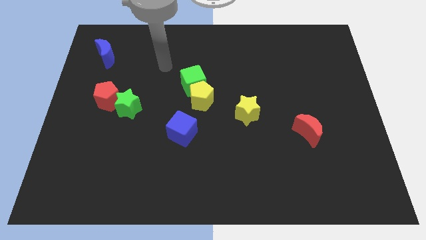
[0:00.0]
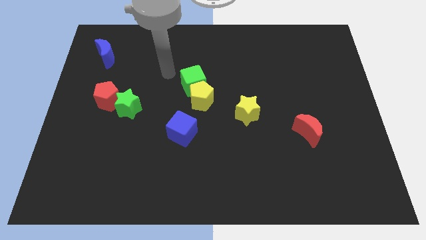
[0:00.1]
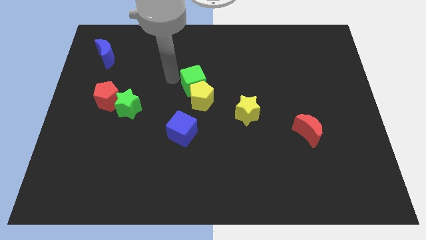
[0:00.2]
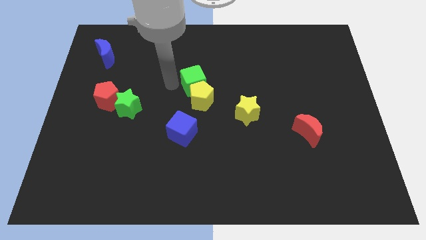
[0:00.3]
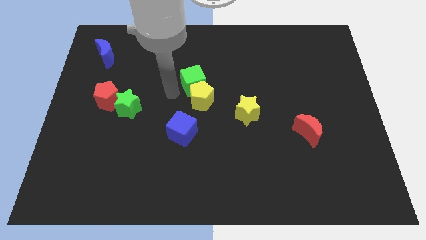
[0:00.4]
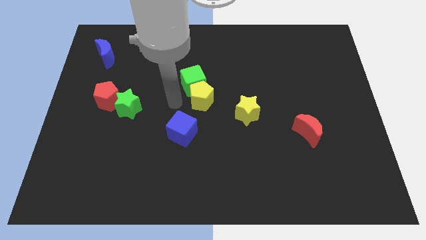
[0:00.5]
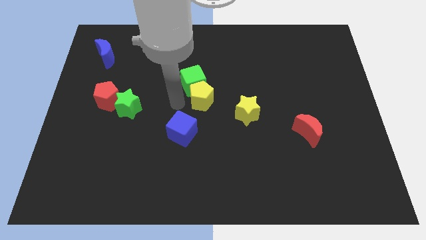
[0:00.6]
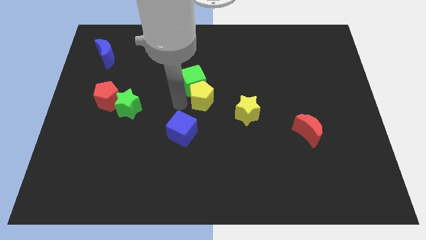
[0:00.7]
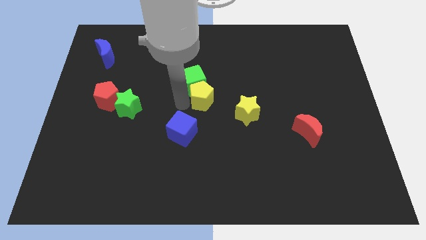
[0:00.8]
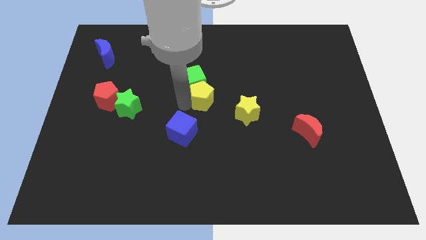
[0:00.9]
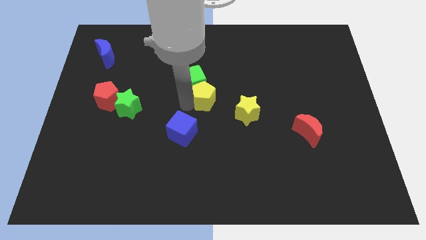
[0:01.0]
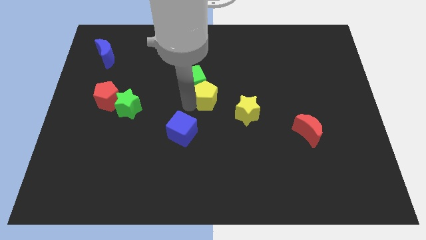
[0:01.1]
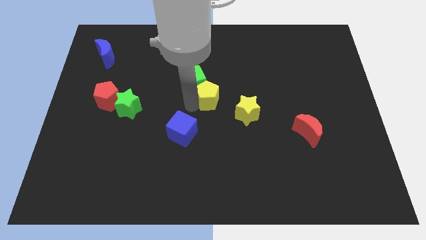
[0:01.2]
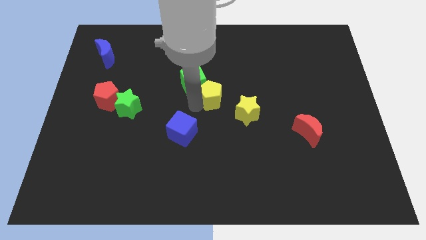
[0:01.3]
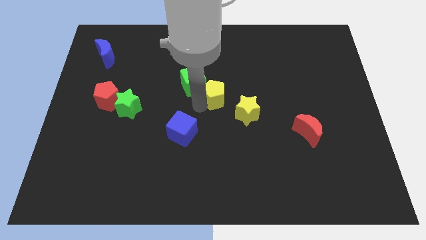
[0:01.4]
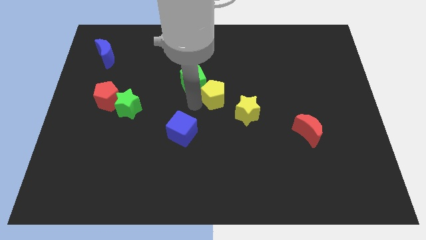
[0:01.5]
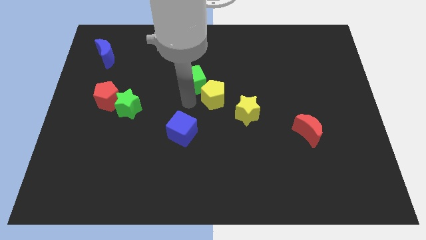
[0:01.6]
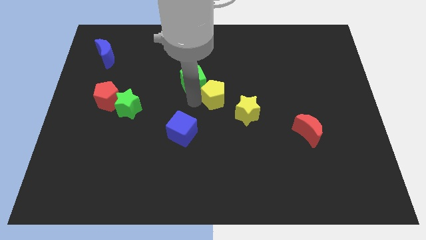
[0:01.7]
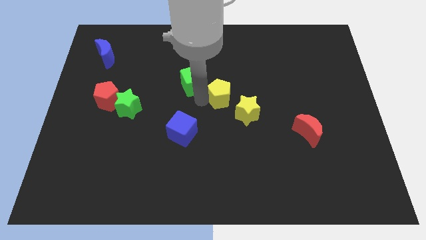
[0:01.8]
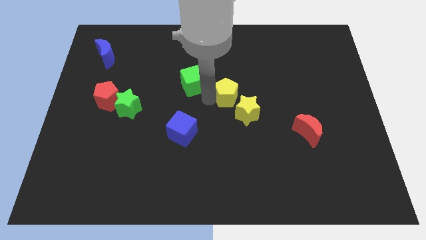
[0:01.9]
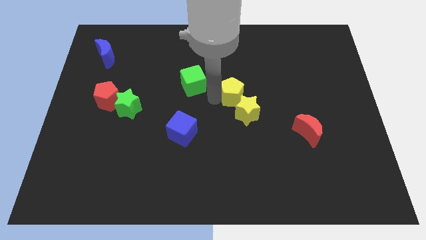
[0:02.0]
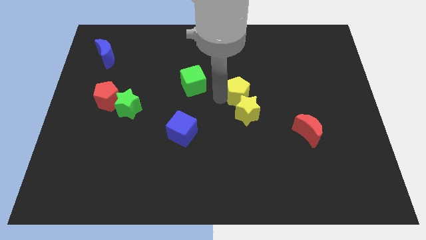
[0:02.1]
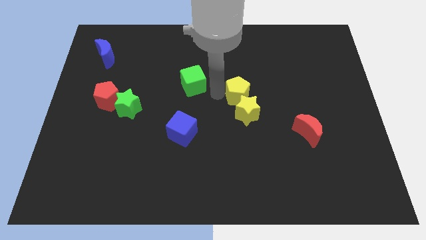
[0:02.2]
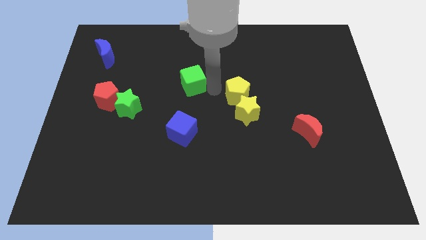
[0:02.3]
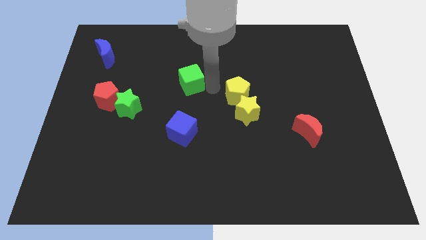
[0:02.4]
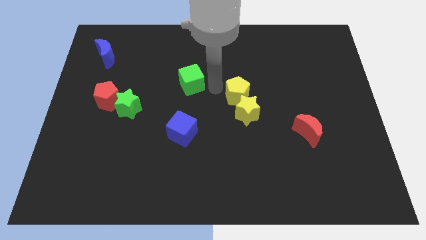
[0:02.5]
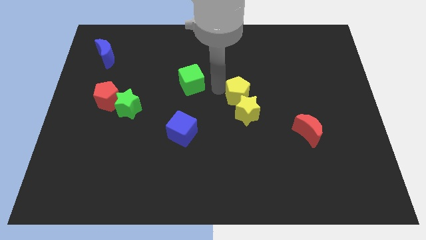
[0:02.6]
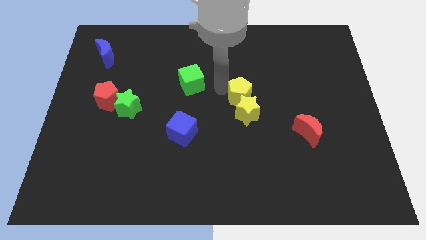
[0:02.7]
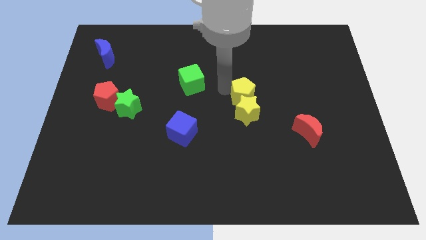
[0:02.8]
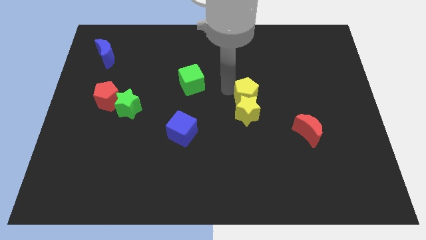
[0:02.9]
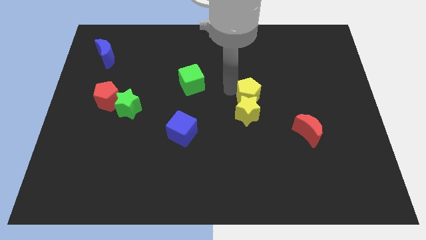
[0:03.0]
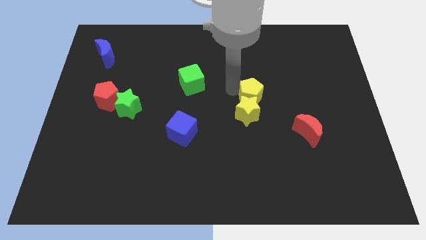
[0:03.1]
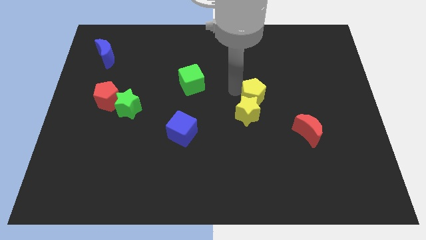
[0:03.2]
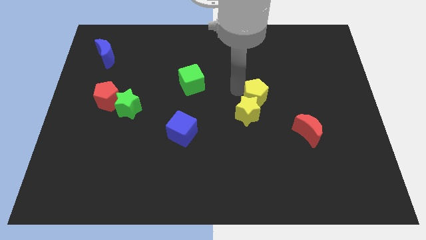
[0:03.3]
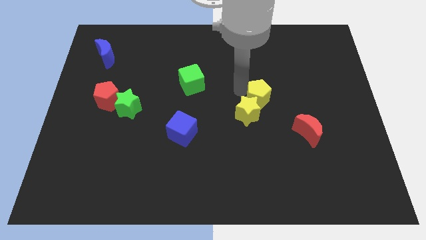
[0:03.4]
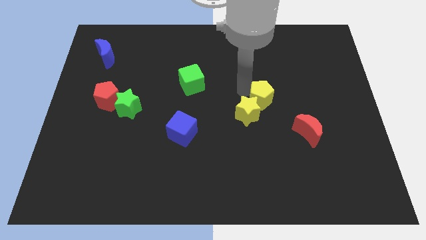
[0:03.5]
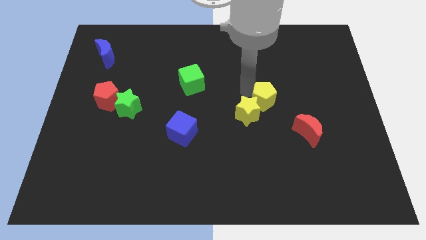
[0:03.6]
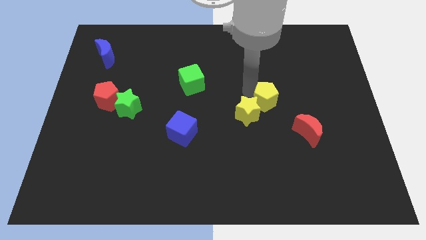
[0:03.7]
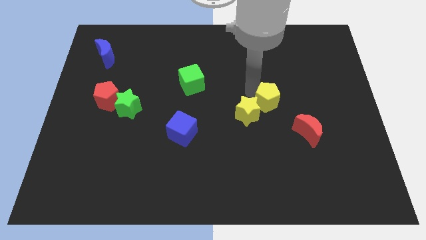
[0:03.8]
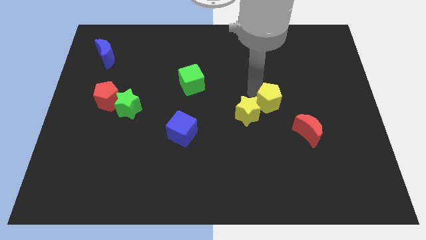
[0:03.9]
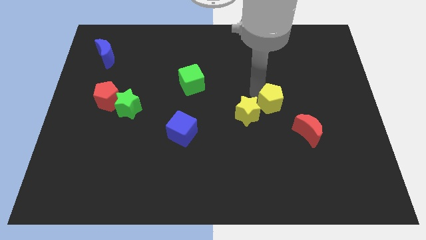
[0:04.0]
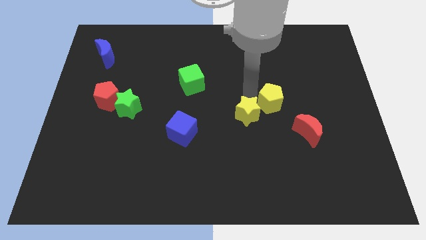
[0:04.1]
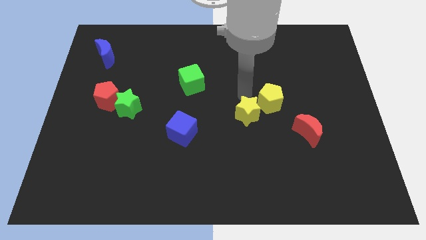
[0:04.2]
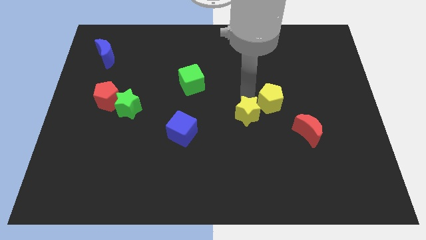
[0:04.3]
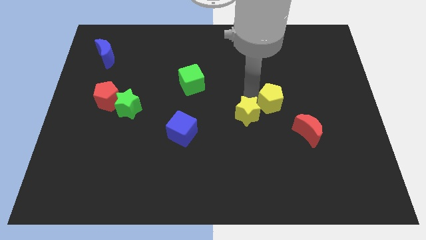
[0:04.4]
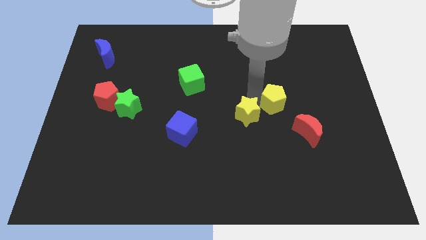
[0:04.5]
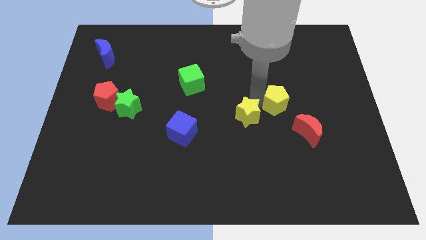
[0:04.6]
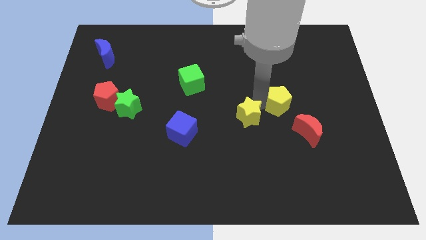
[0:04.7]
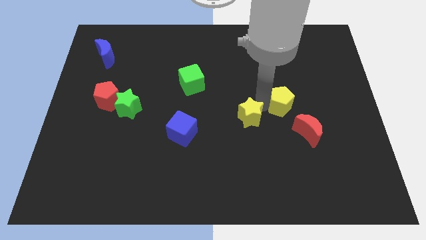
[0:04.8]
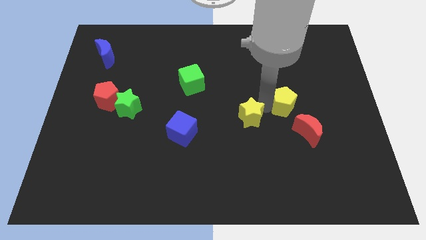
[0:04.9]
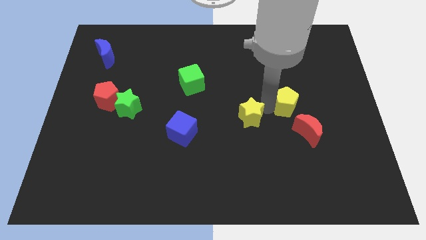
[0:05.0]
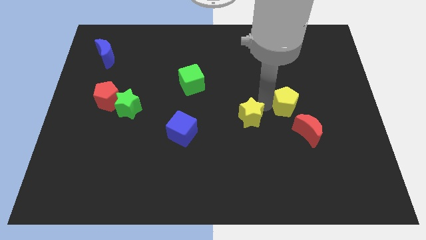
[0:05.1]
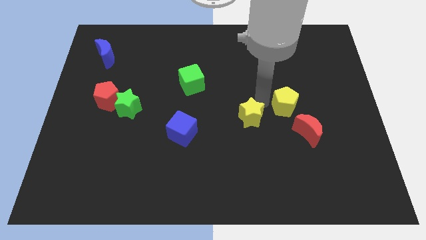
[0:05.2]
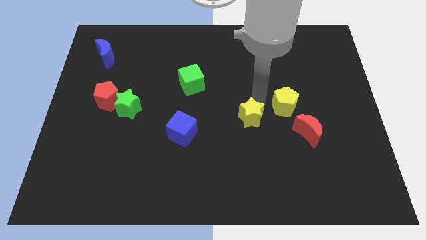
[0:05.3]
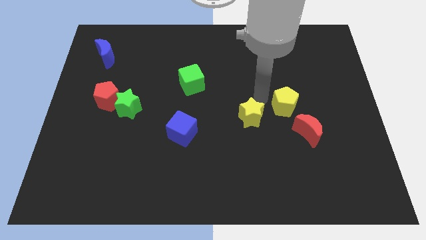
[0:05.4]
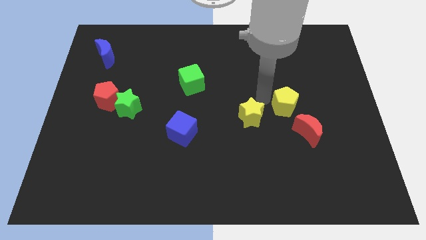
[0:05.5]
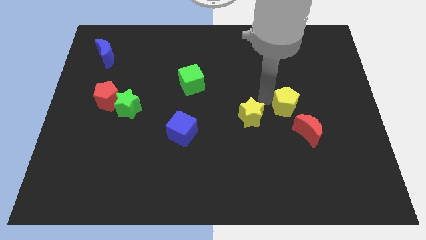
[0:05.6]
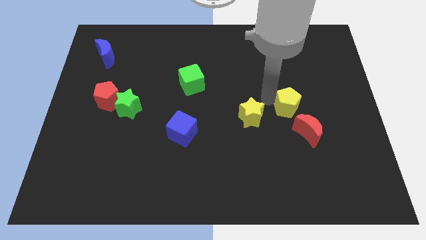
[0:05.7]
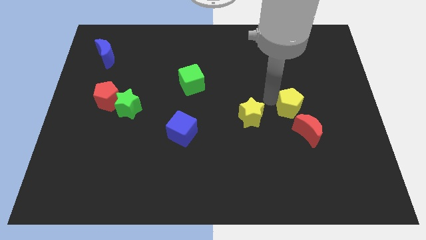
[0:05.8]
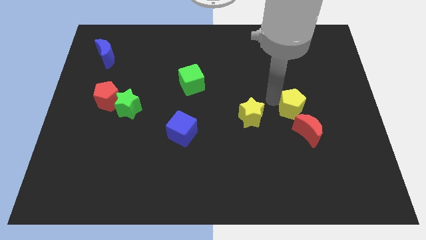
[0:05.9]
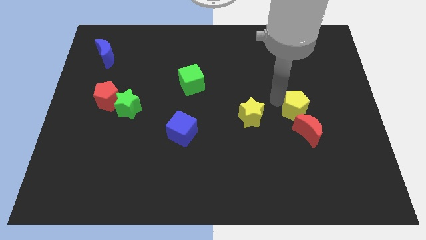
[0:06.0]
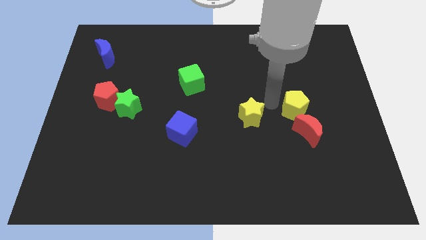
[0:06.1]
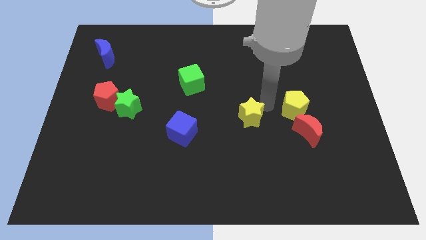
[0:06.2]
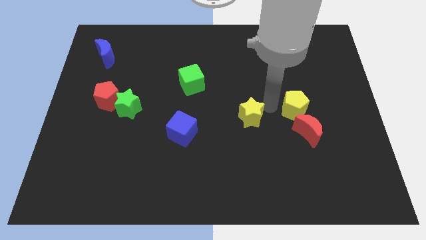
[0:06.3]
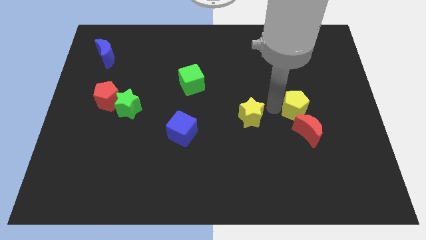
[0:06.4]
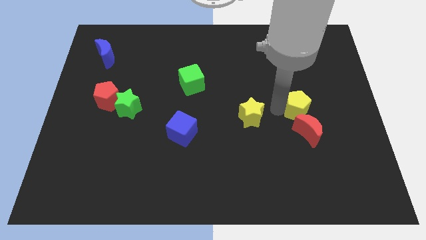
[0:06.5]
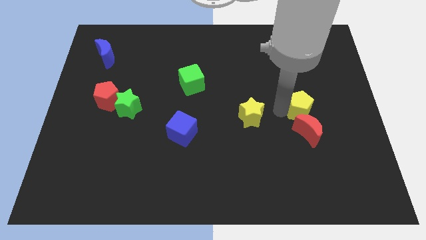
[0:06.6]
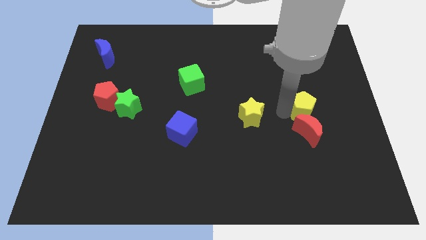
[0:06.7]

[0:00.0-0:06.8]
move the yellow pentagon to the top right of the red moon
